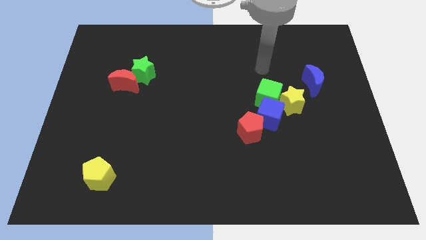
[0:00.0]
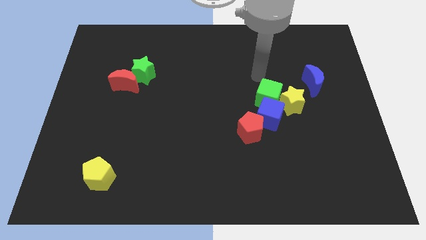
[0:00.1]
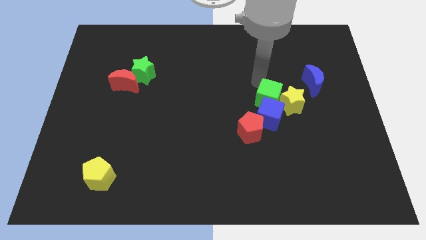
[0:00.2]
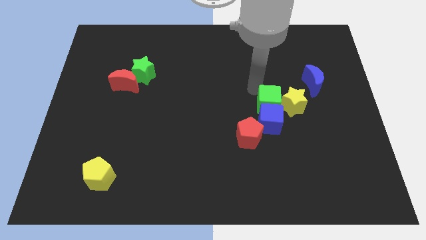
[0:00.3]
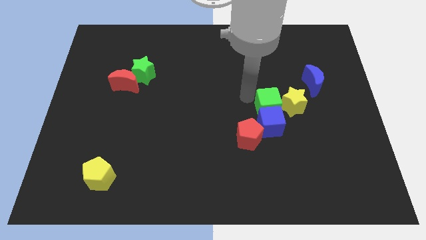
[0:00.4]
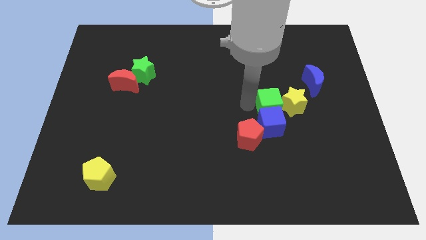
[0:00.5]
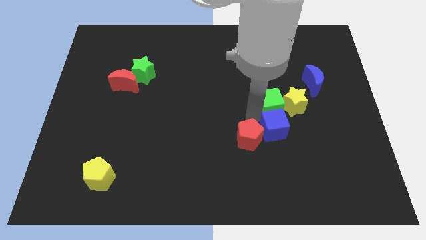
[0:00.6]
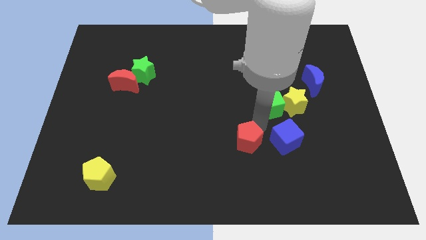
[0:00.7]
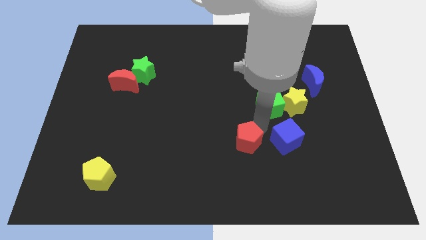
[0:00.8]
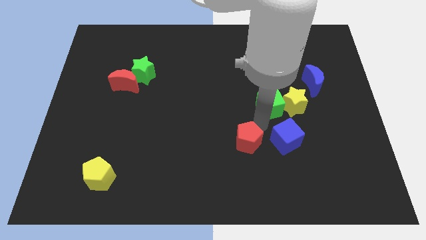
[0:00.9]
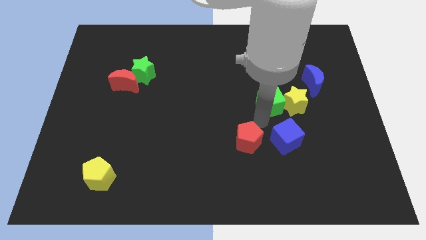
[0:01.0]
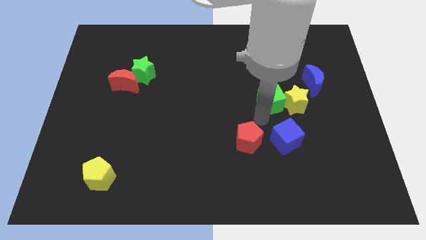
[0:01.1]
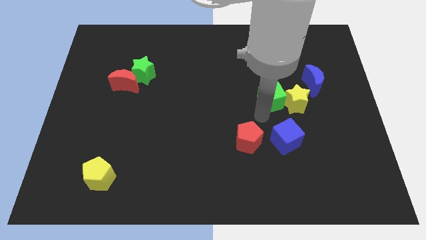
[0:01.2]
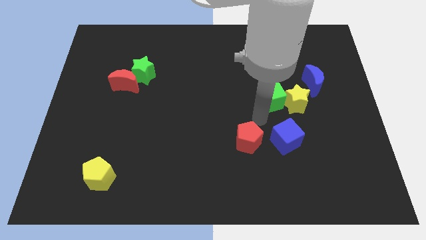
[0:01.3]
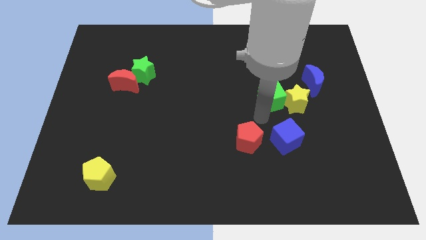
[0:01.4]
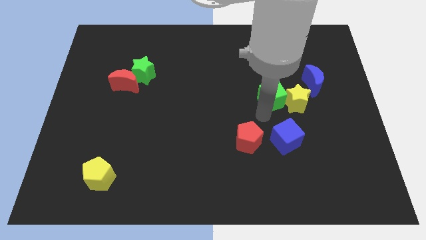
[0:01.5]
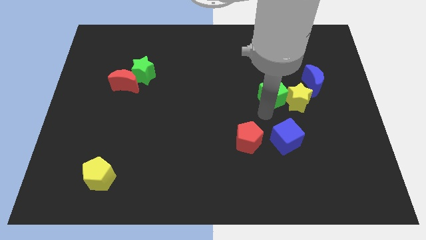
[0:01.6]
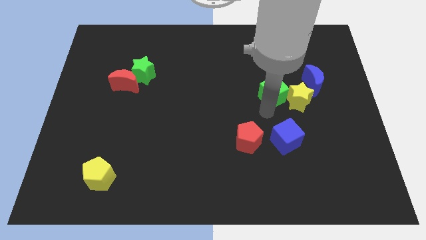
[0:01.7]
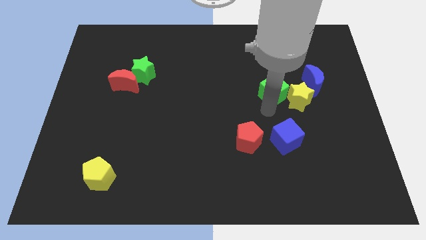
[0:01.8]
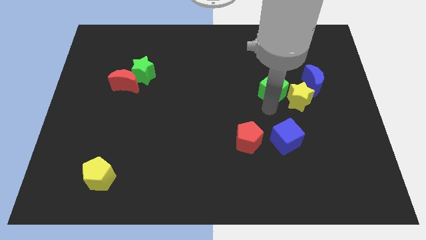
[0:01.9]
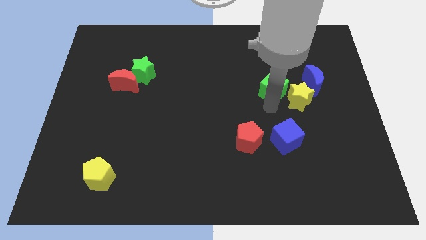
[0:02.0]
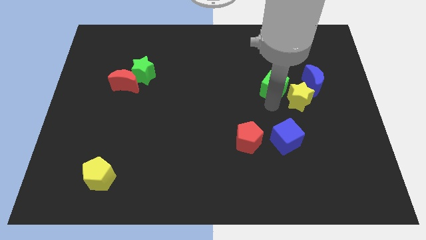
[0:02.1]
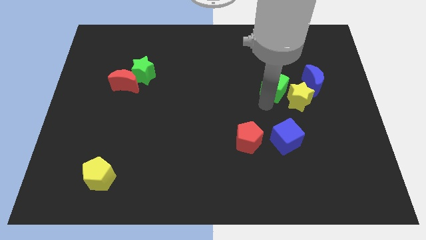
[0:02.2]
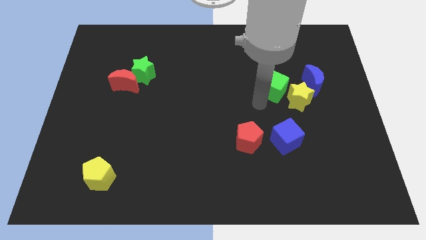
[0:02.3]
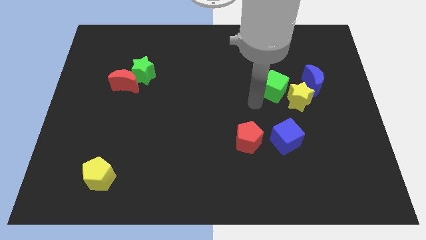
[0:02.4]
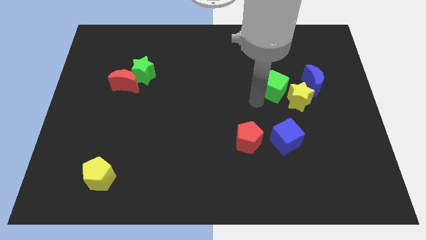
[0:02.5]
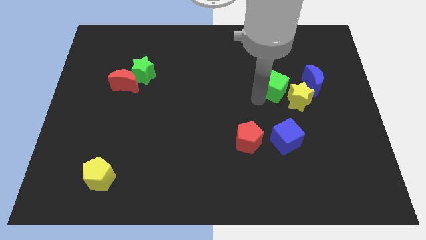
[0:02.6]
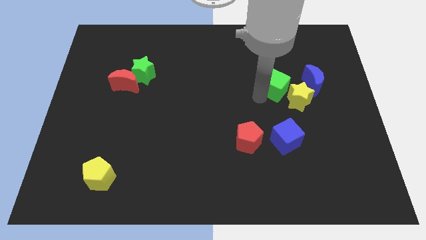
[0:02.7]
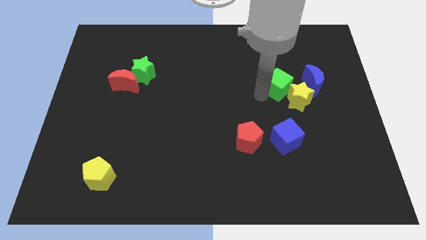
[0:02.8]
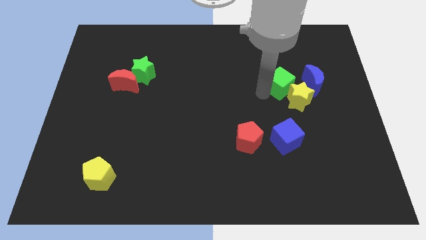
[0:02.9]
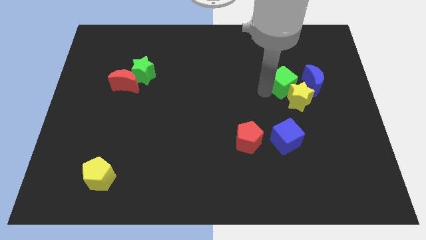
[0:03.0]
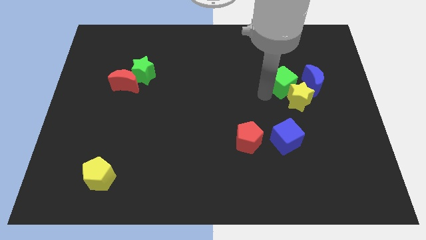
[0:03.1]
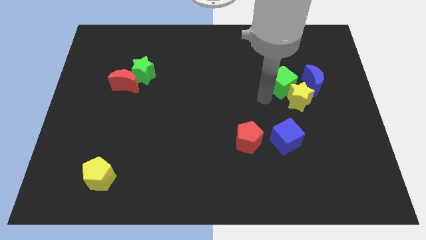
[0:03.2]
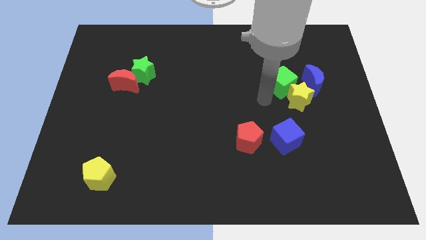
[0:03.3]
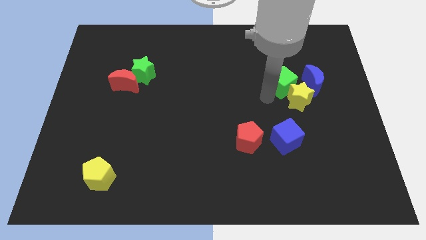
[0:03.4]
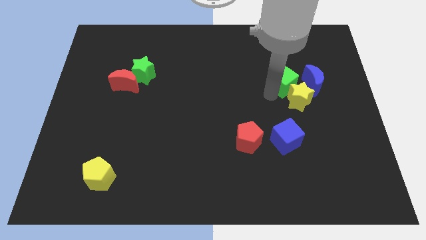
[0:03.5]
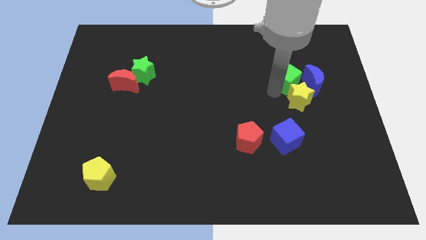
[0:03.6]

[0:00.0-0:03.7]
push the green cube a little up and right diagonally

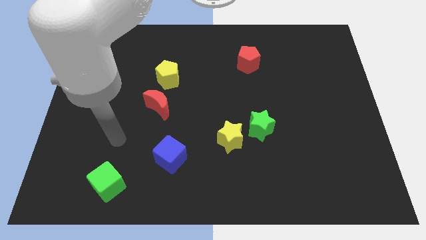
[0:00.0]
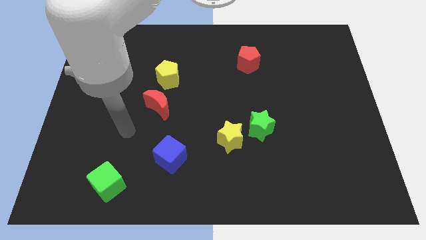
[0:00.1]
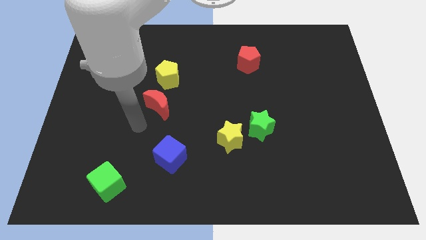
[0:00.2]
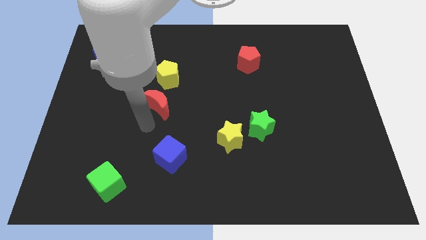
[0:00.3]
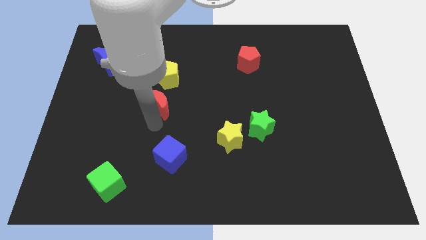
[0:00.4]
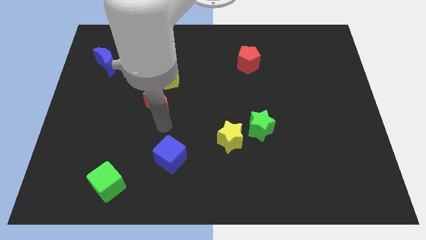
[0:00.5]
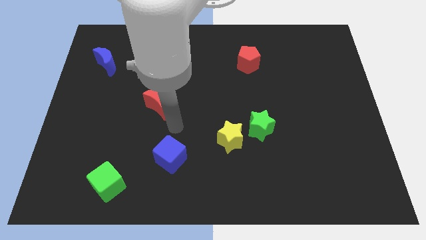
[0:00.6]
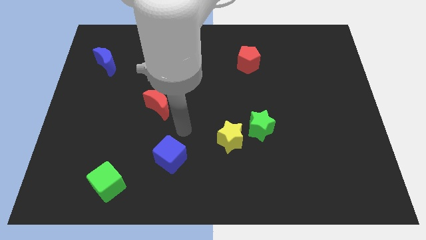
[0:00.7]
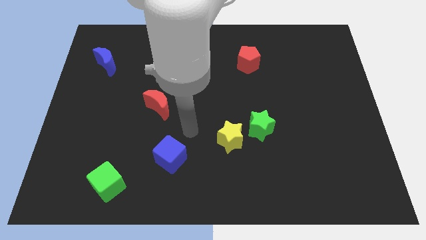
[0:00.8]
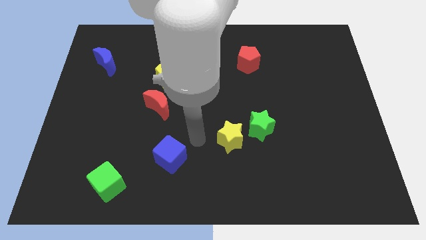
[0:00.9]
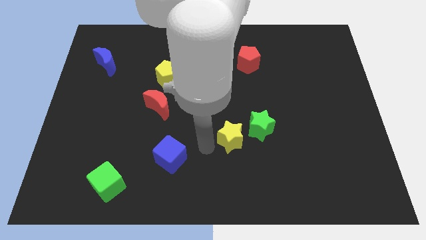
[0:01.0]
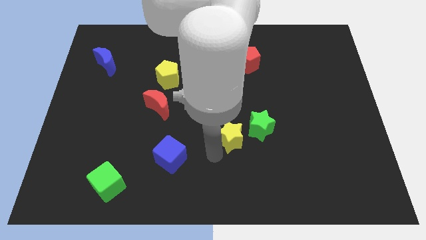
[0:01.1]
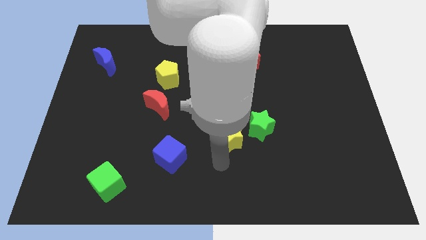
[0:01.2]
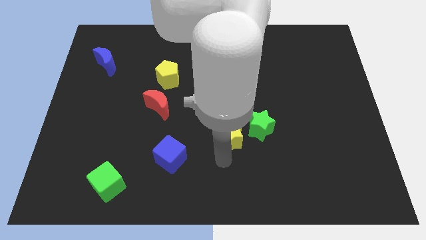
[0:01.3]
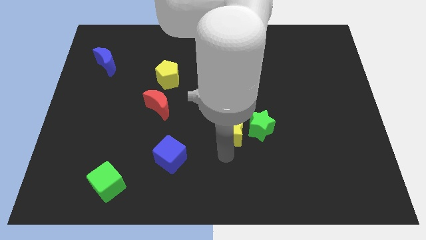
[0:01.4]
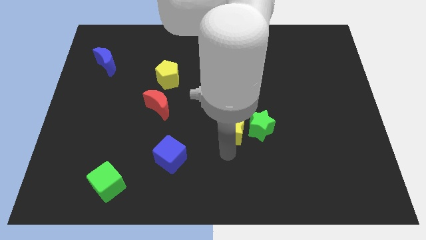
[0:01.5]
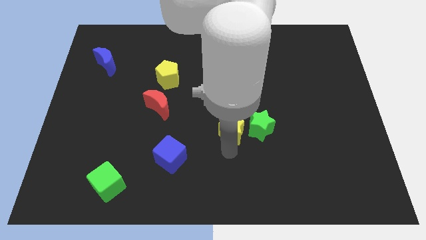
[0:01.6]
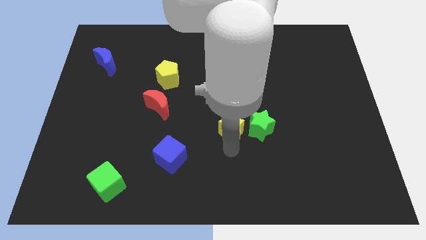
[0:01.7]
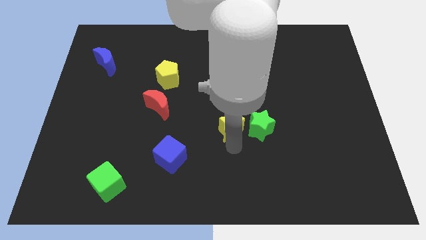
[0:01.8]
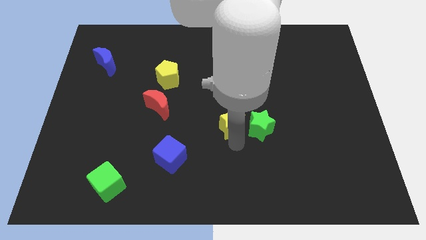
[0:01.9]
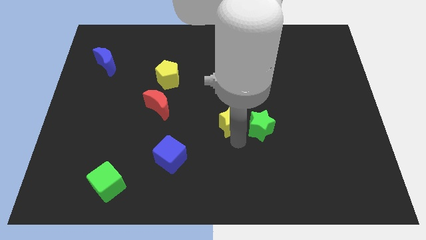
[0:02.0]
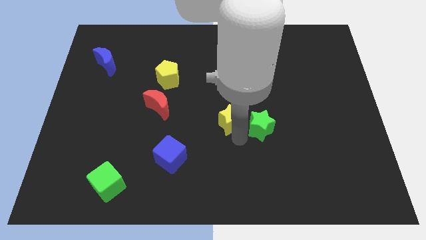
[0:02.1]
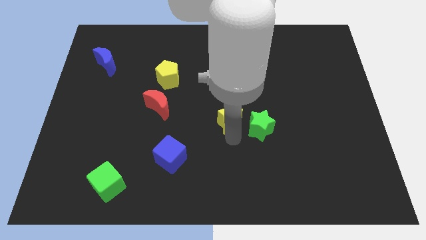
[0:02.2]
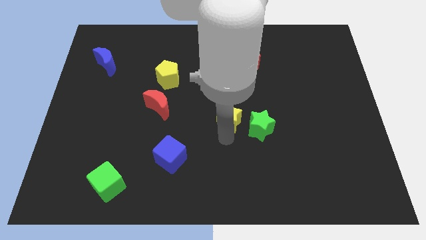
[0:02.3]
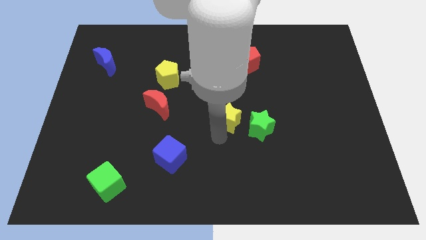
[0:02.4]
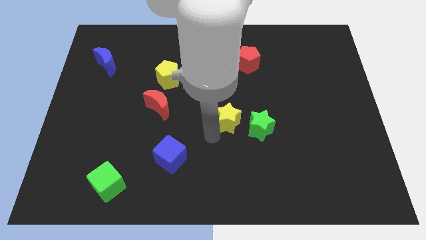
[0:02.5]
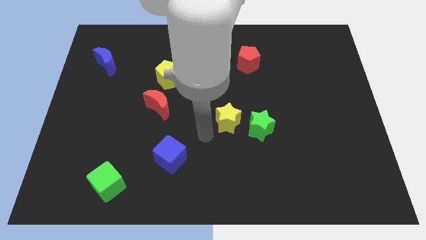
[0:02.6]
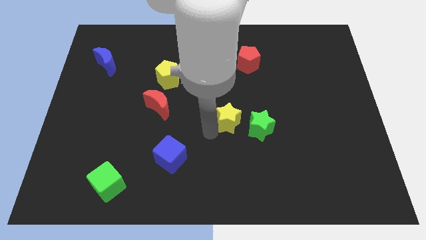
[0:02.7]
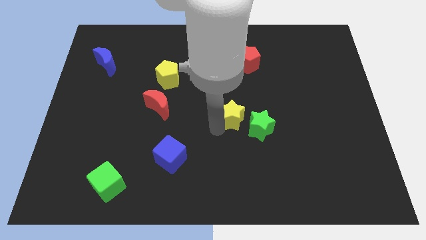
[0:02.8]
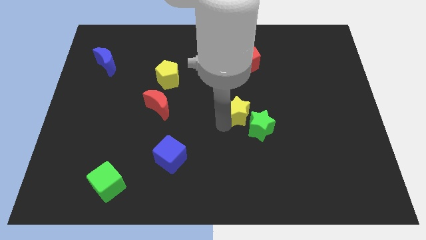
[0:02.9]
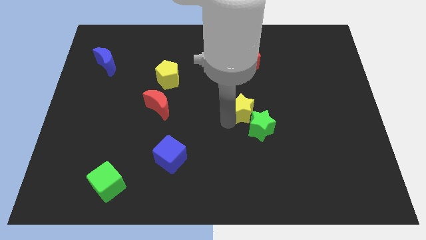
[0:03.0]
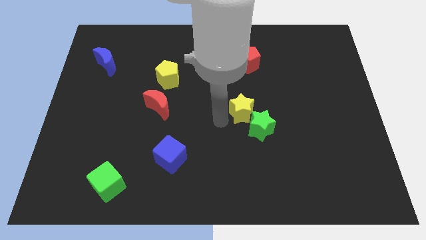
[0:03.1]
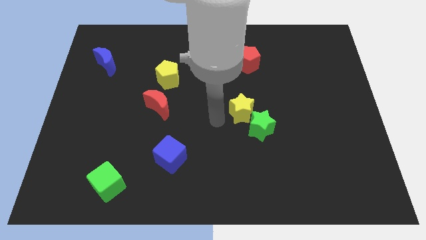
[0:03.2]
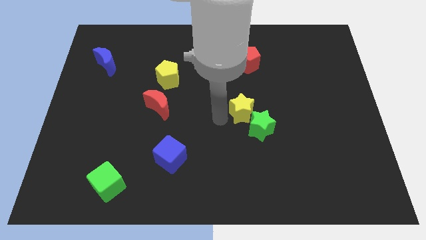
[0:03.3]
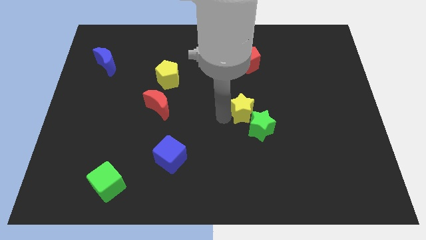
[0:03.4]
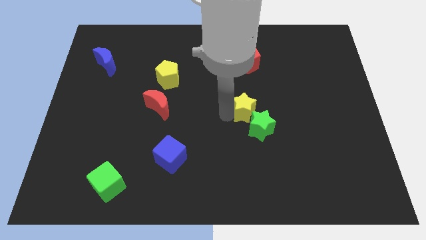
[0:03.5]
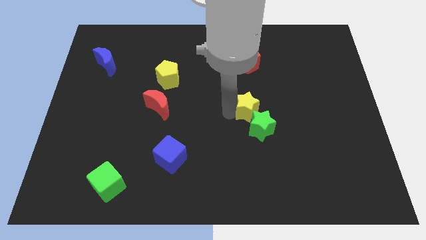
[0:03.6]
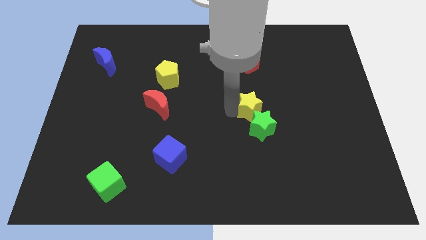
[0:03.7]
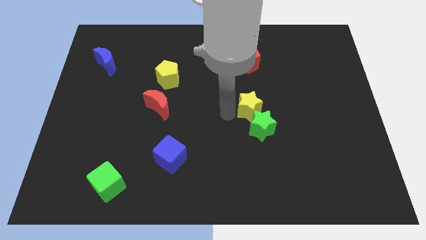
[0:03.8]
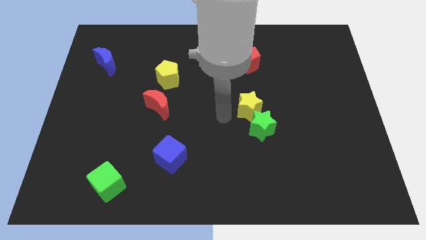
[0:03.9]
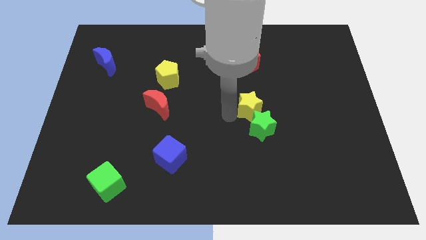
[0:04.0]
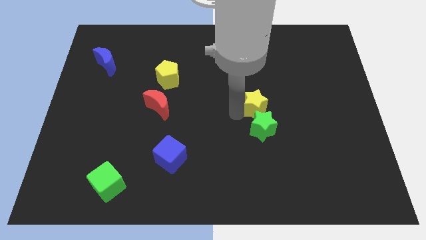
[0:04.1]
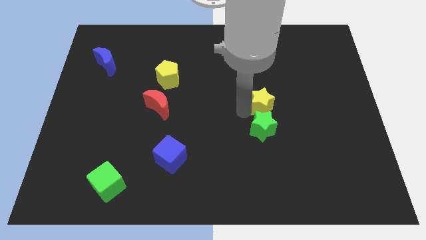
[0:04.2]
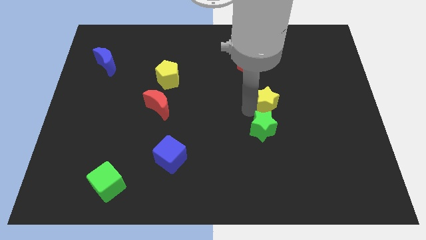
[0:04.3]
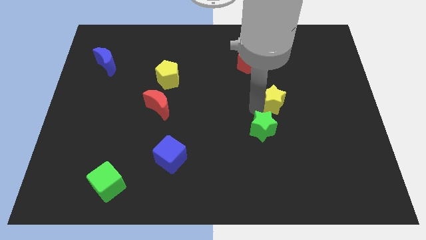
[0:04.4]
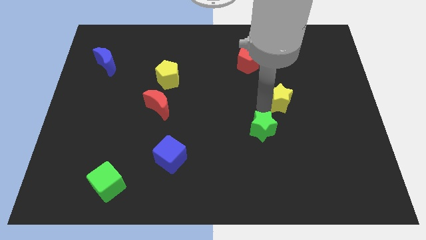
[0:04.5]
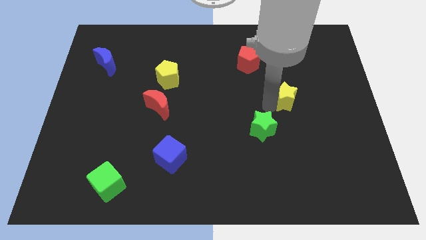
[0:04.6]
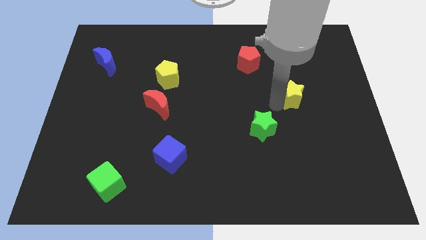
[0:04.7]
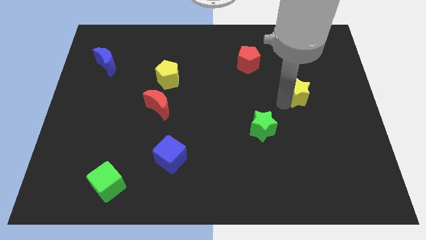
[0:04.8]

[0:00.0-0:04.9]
push the yellow star diagonally upwards and to the right
